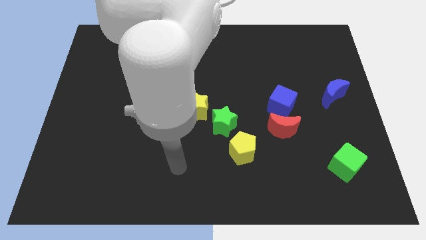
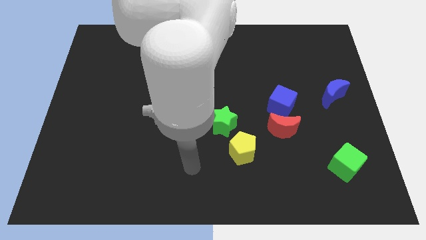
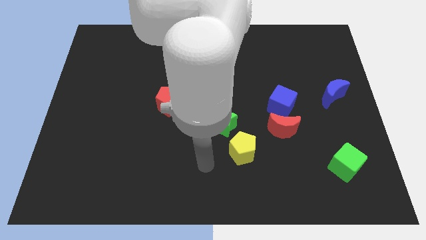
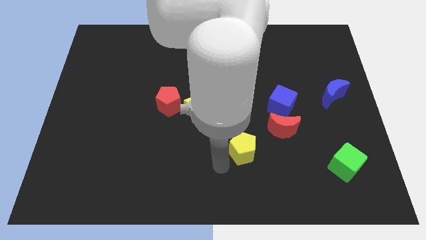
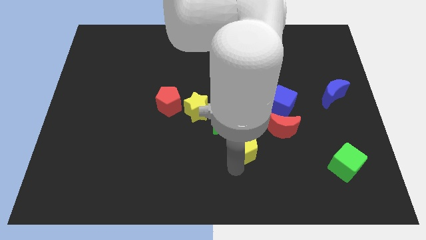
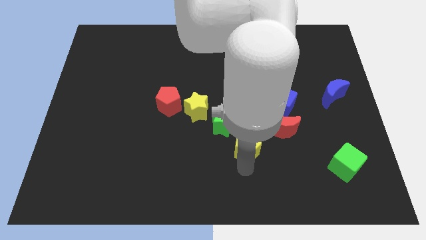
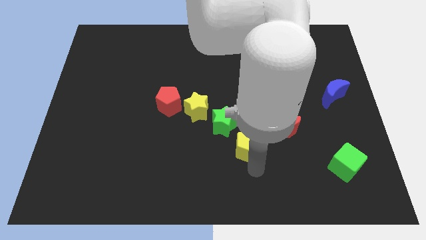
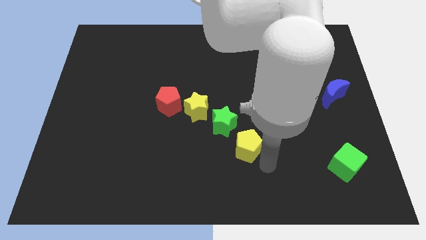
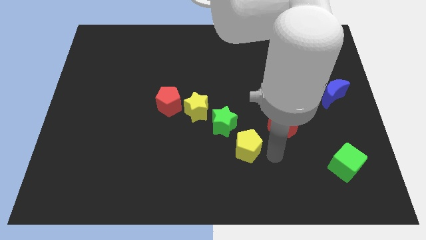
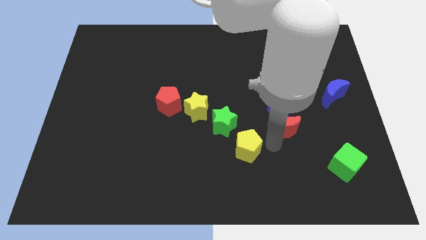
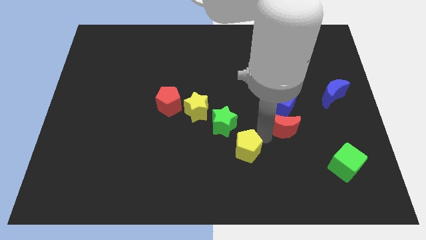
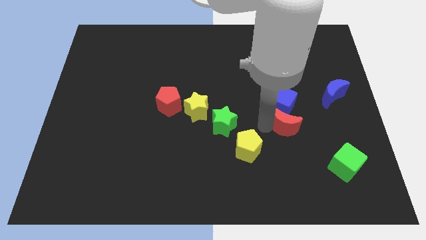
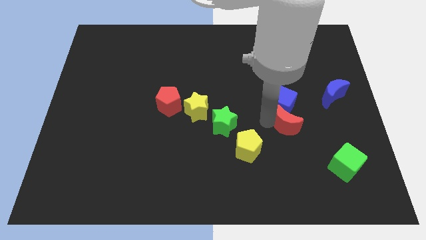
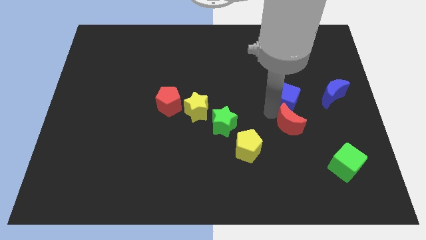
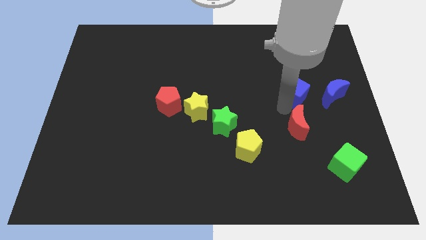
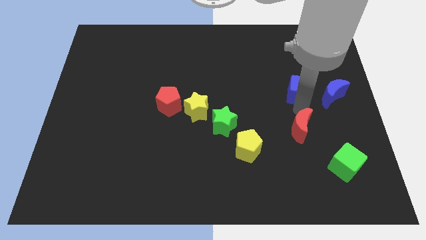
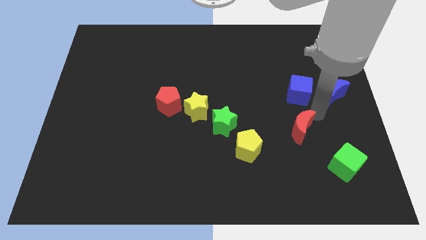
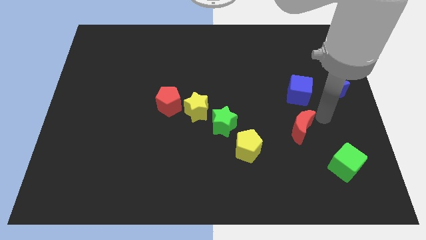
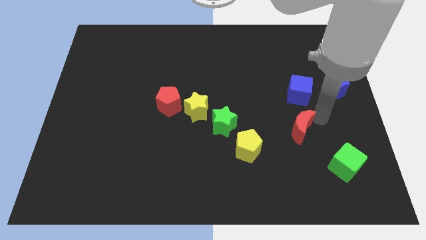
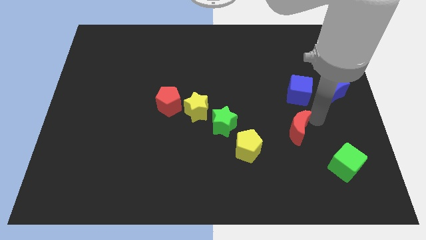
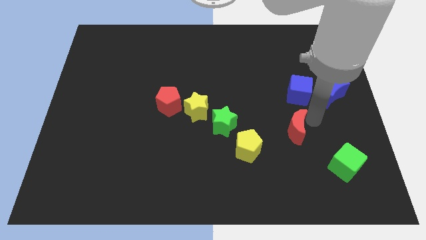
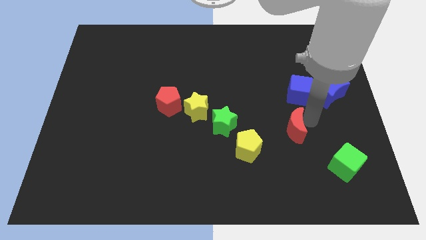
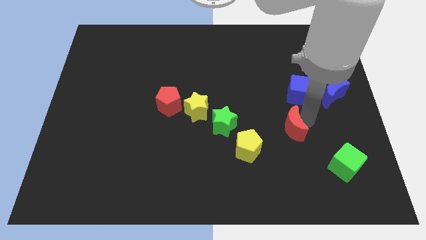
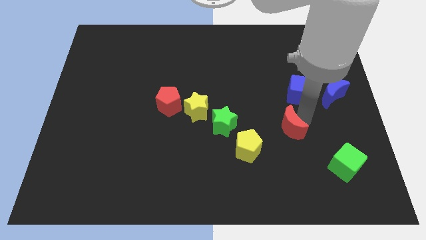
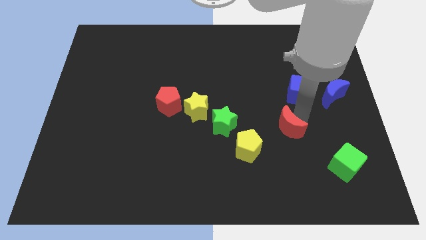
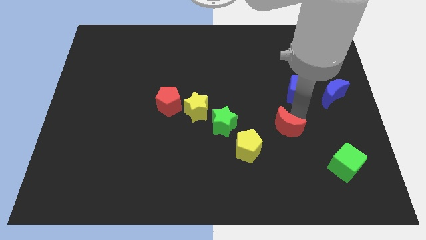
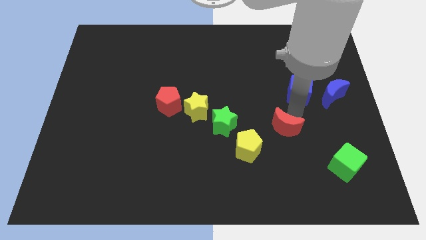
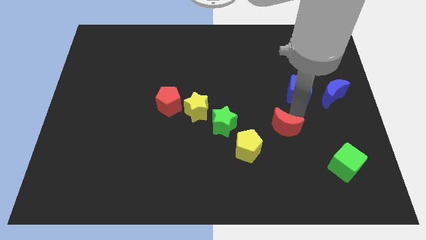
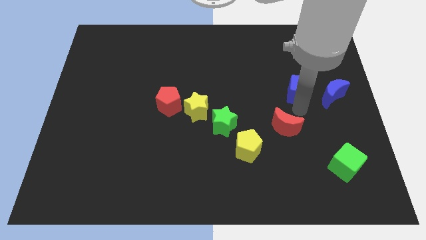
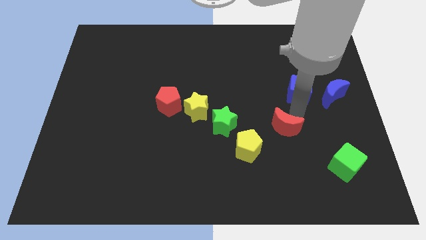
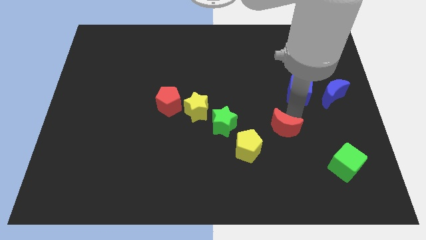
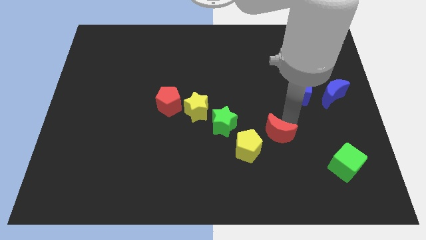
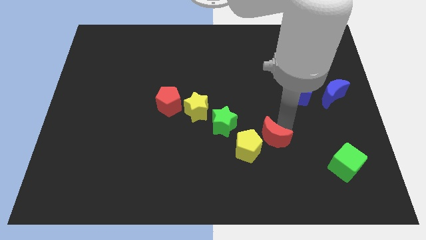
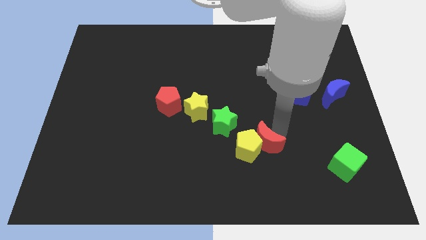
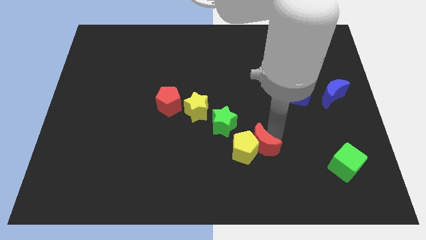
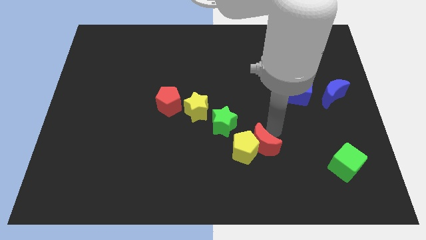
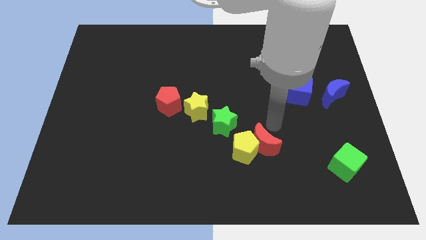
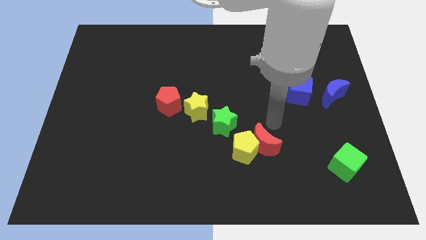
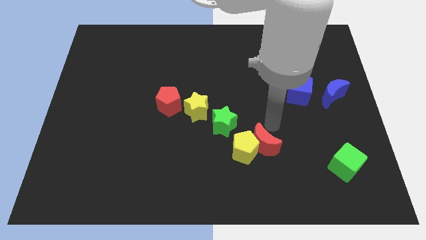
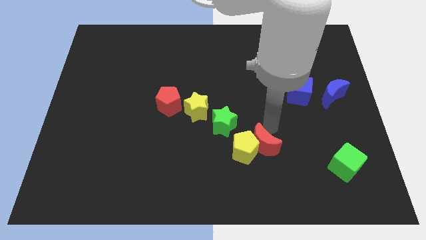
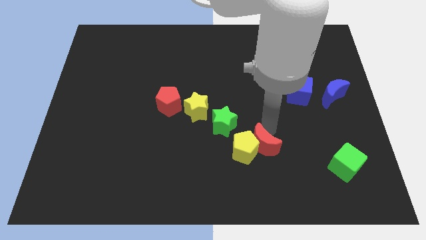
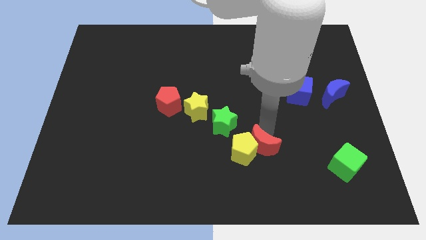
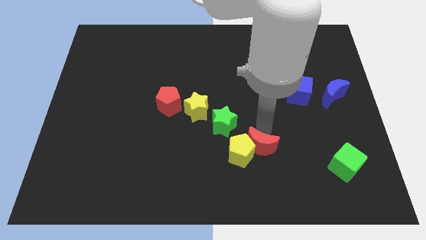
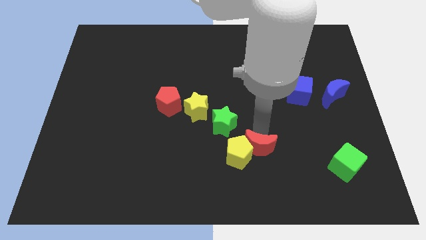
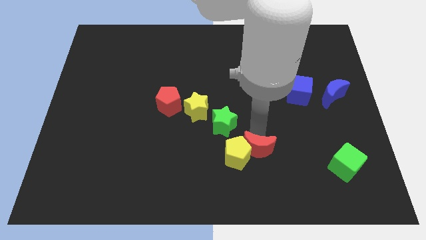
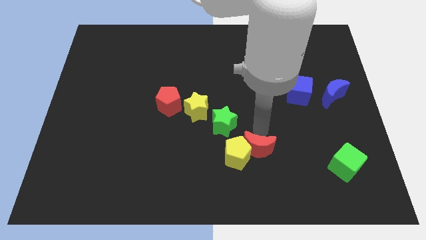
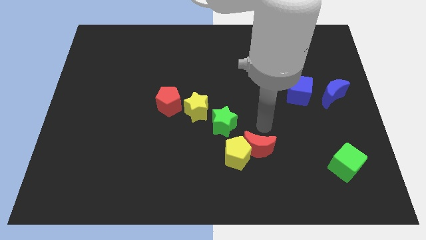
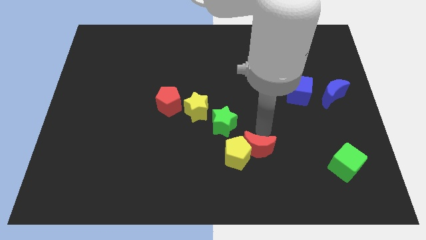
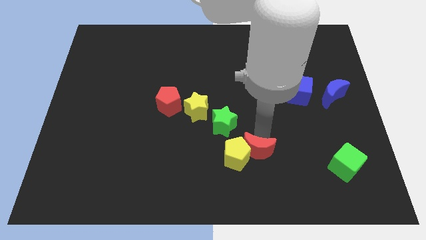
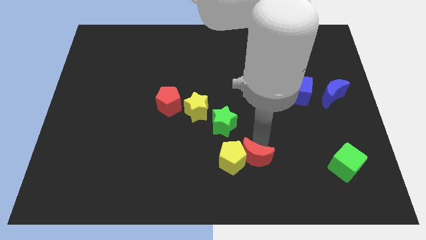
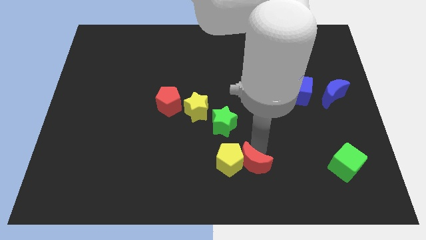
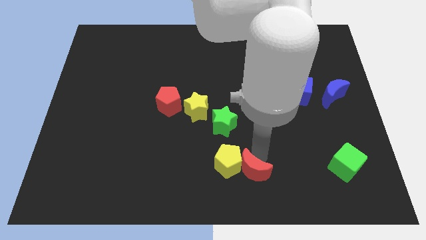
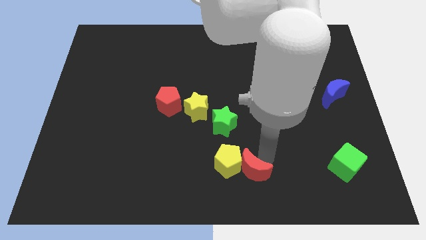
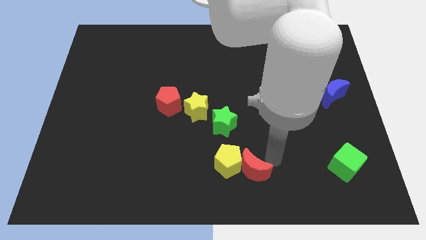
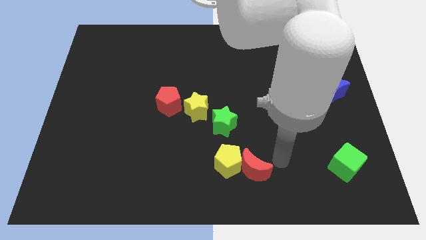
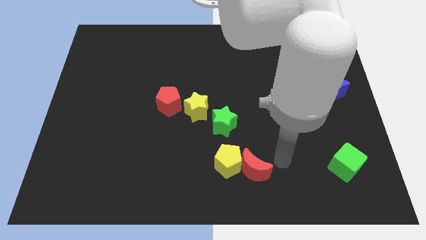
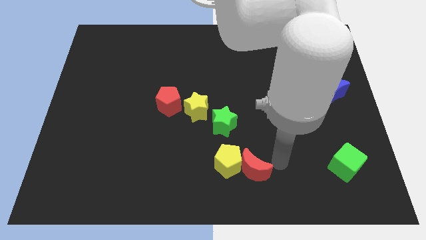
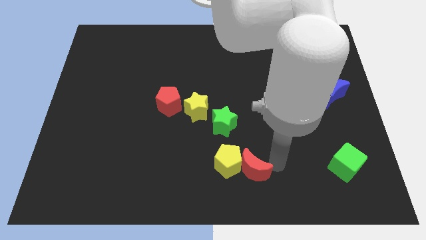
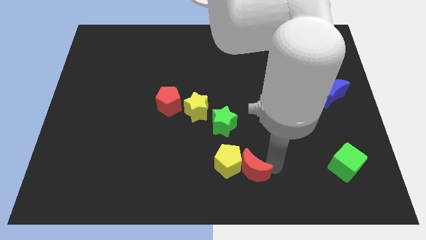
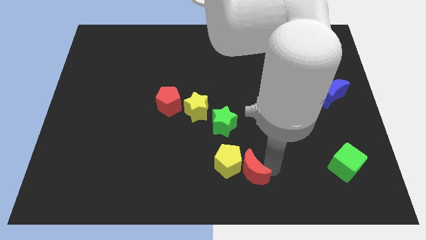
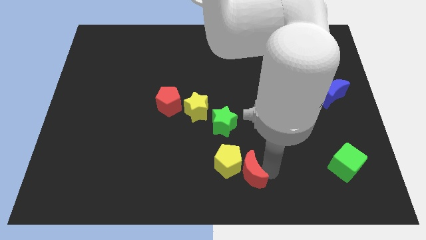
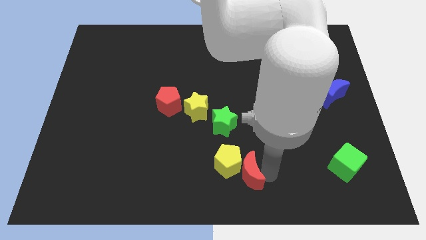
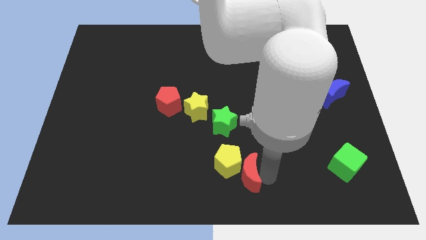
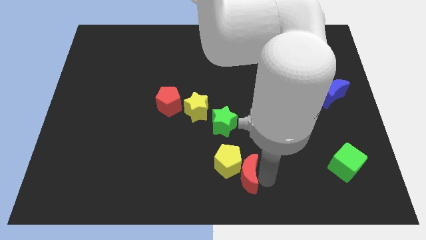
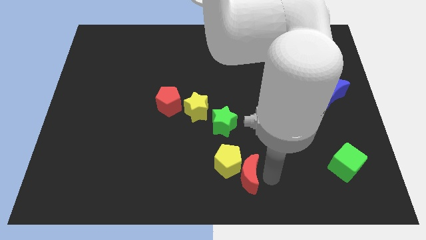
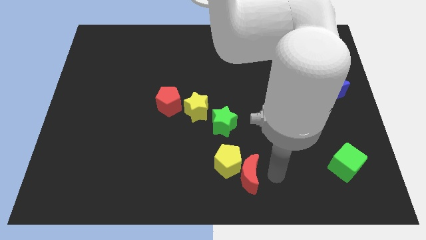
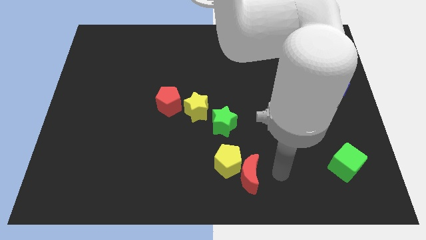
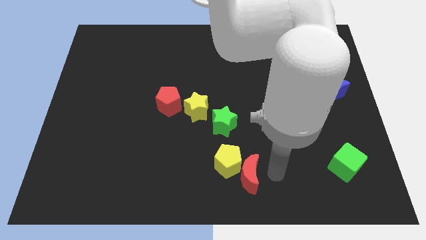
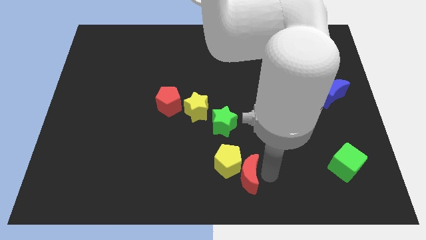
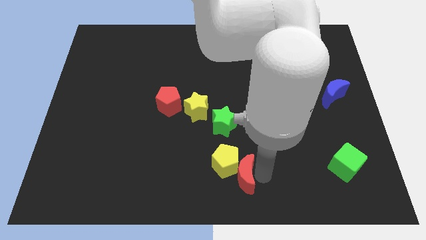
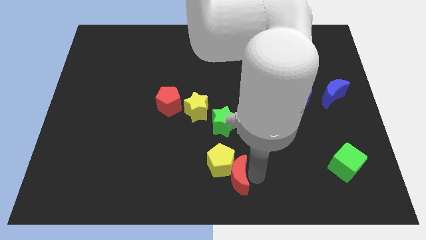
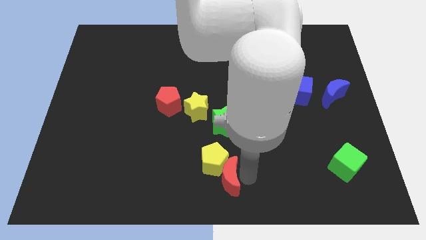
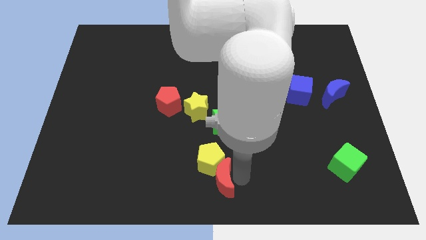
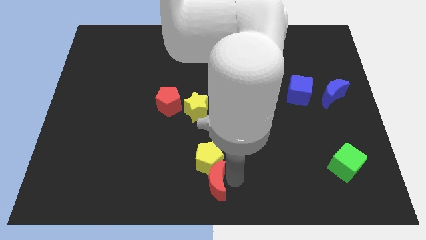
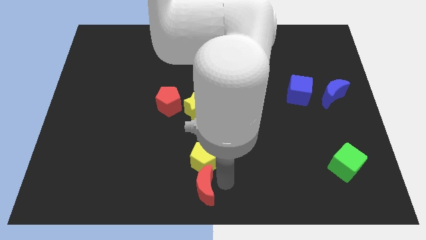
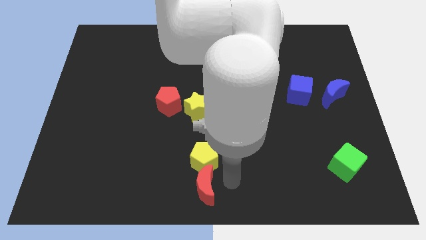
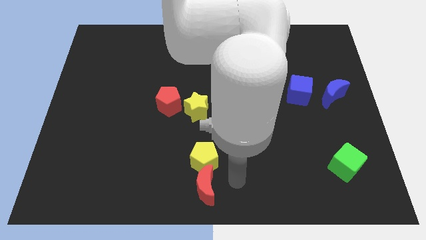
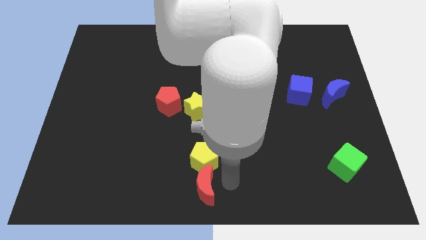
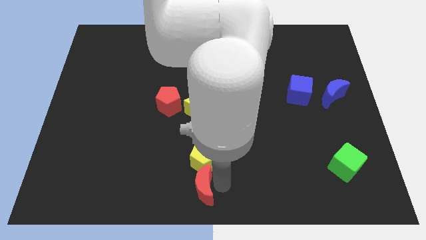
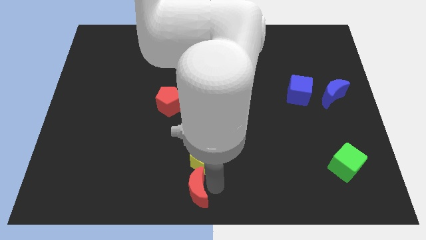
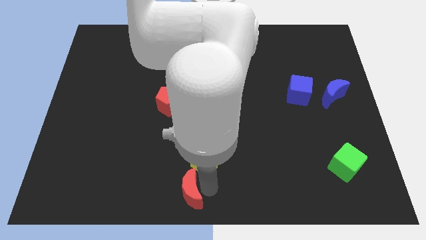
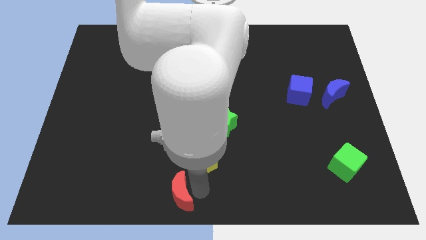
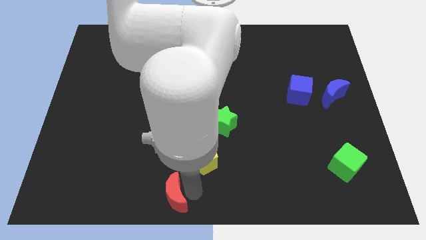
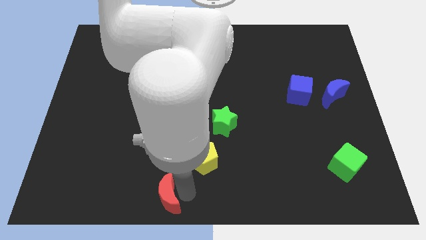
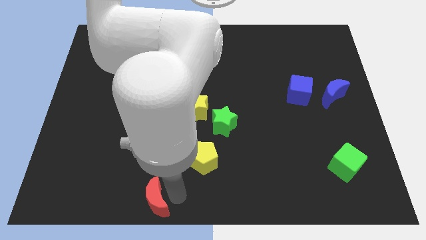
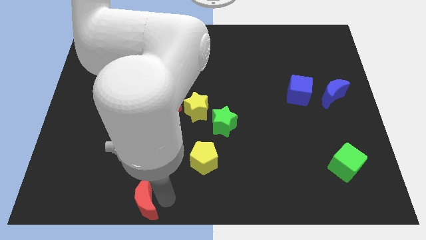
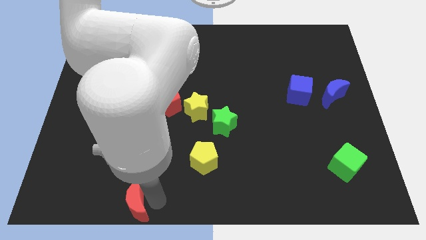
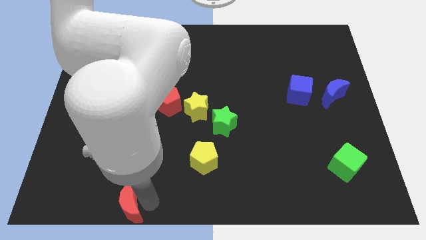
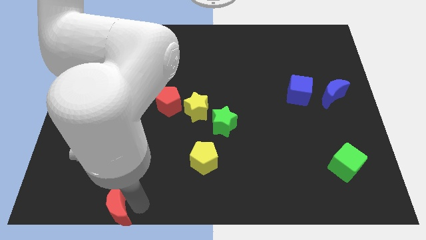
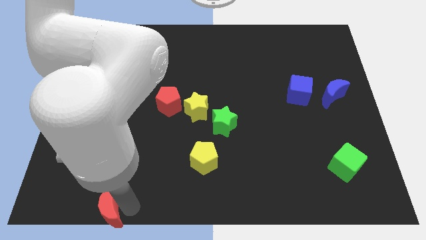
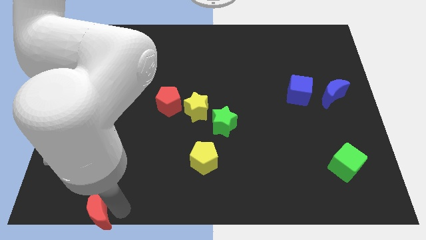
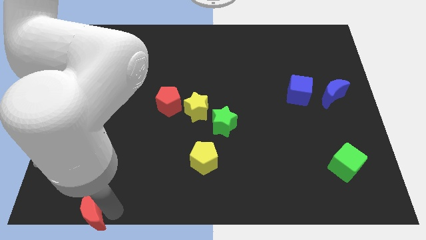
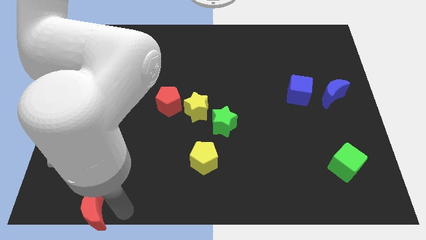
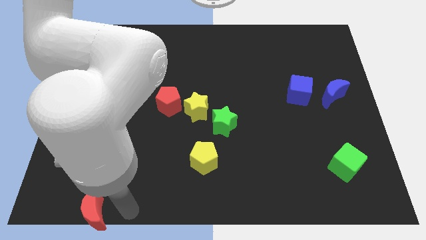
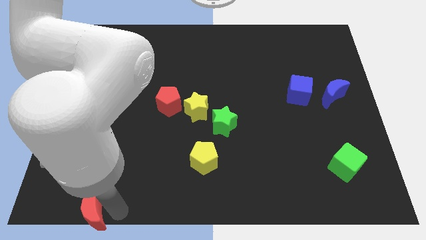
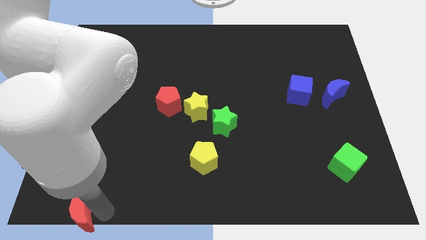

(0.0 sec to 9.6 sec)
put the red moon to the bottom left of the board
